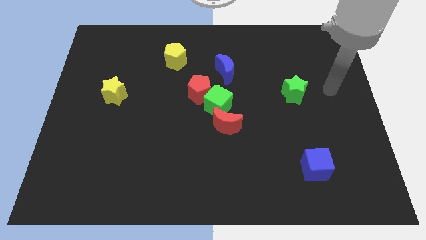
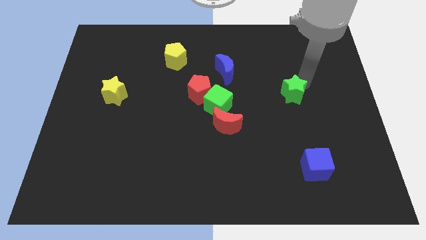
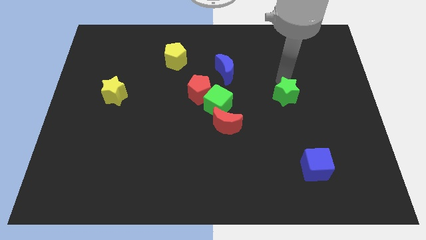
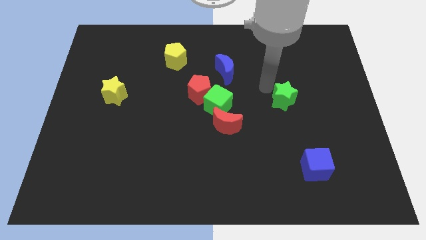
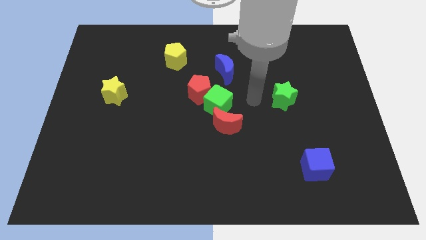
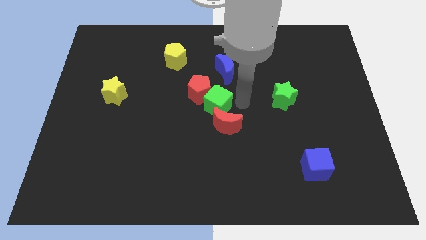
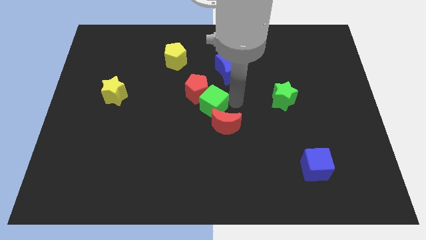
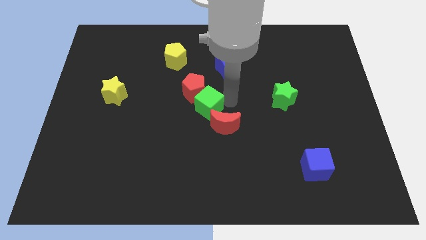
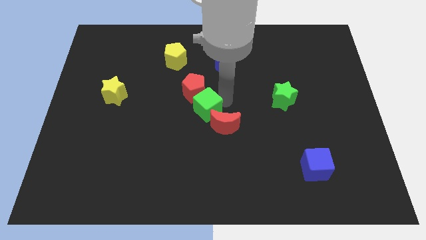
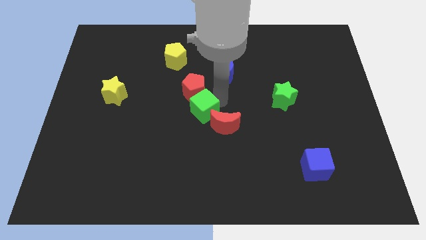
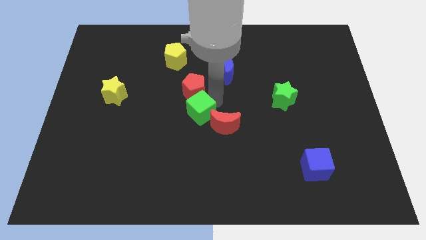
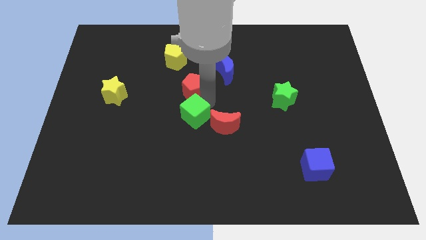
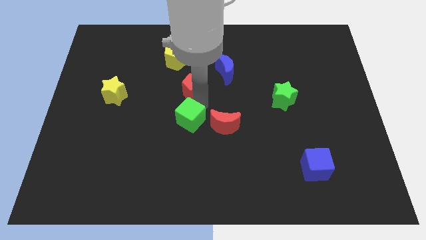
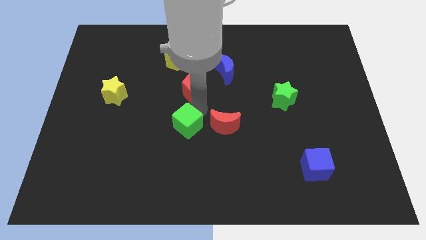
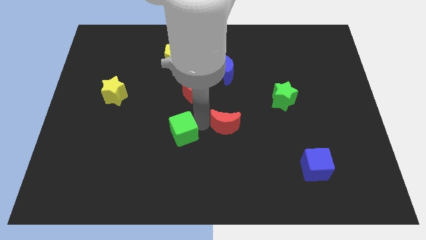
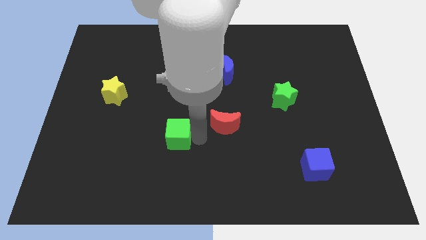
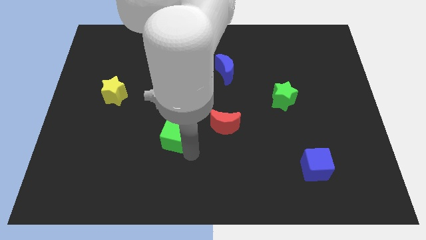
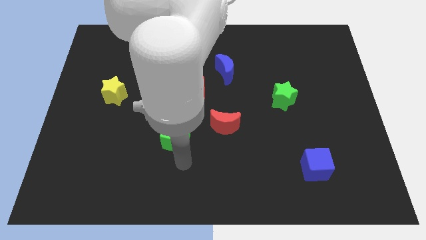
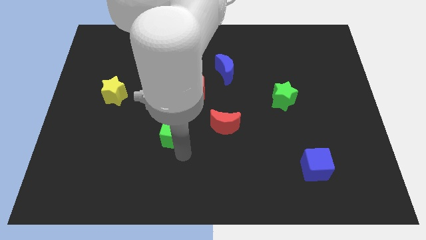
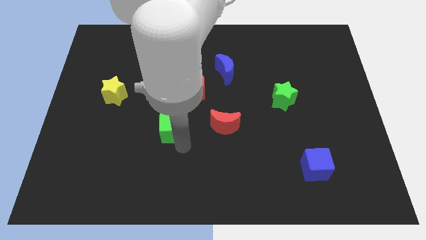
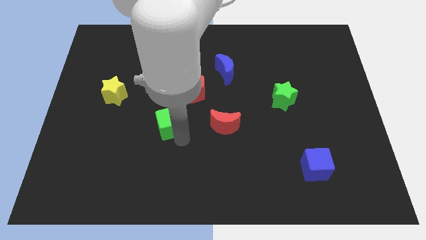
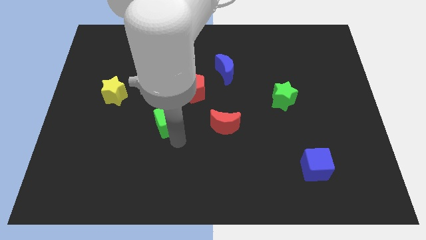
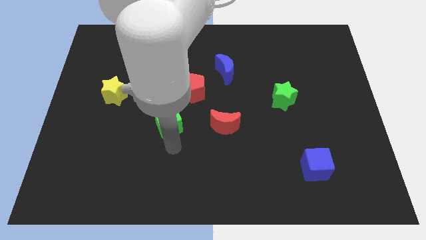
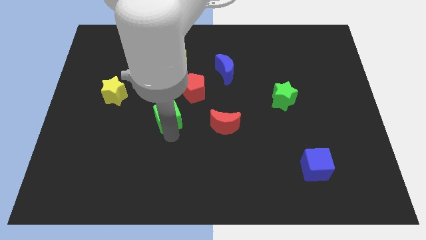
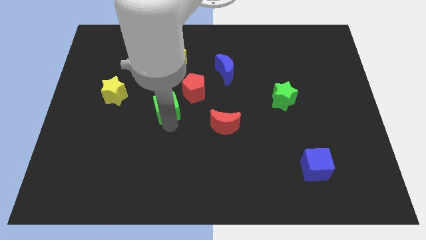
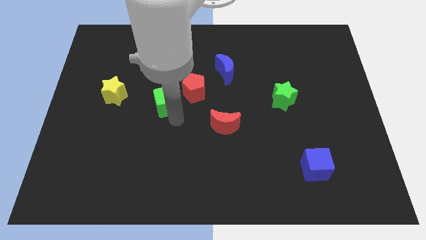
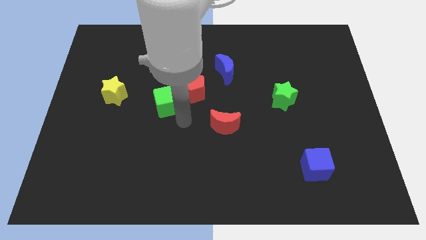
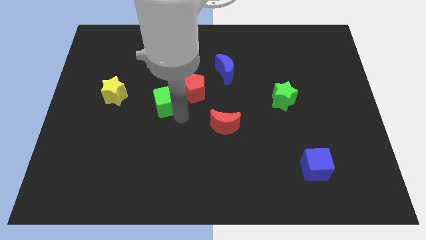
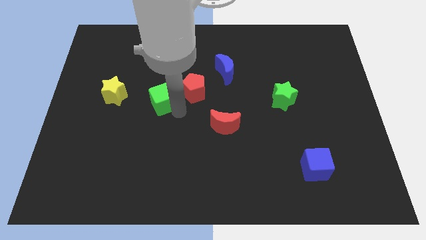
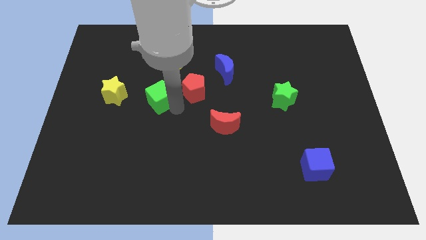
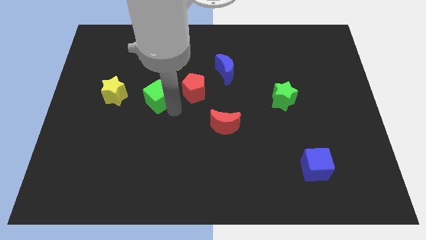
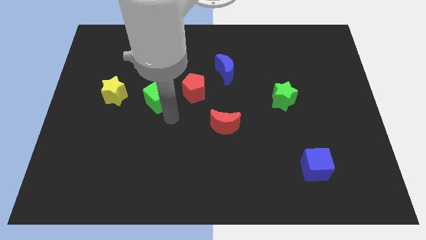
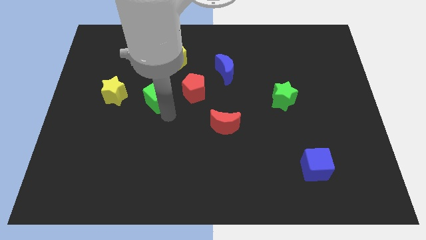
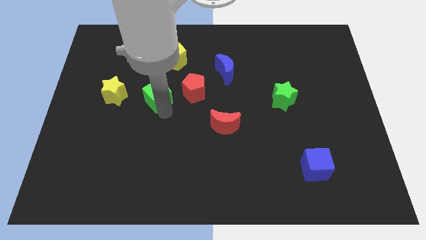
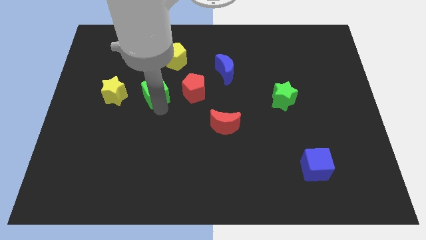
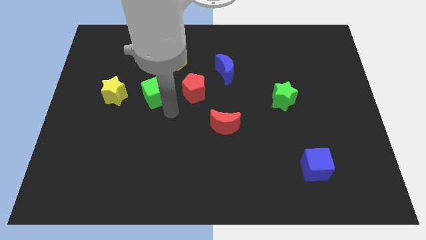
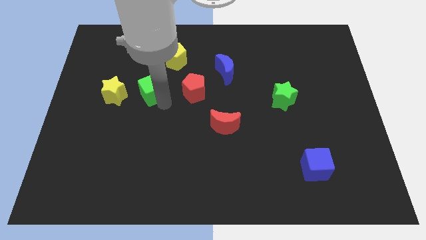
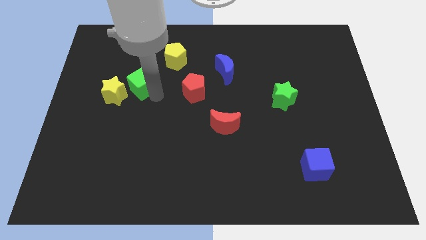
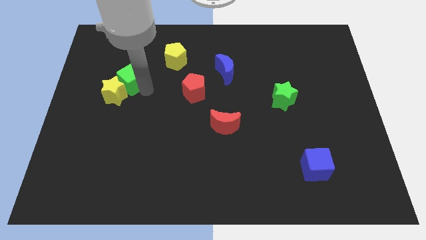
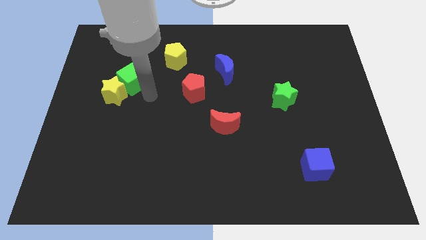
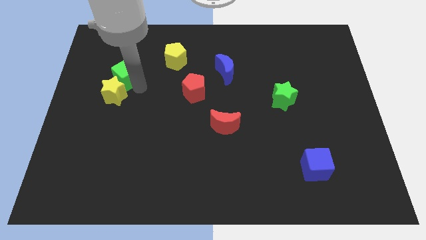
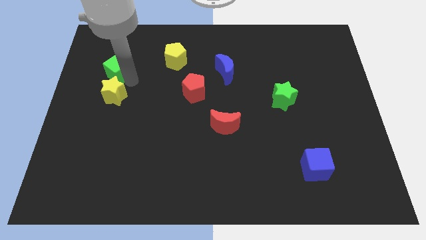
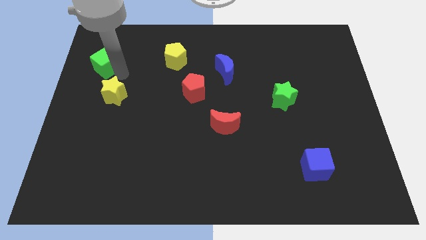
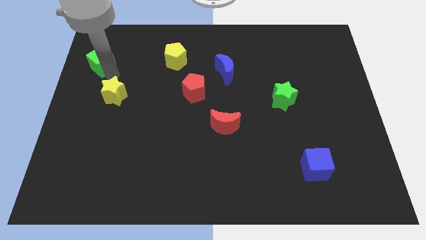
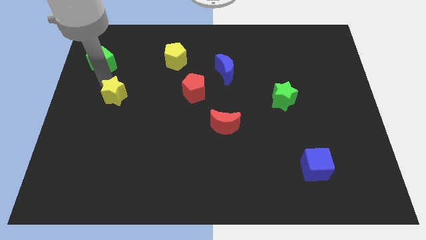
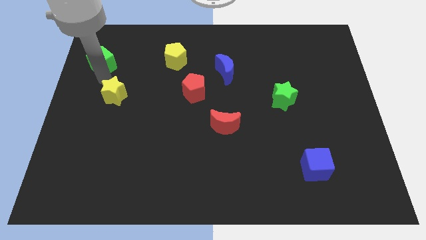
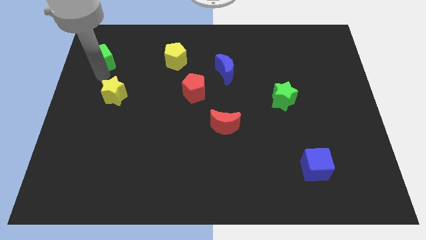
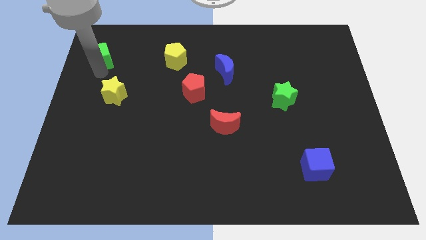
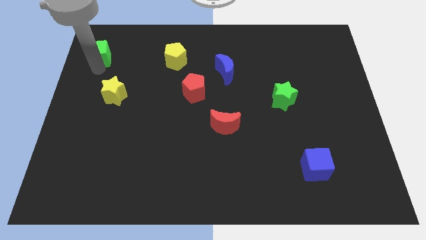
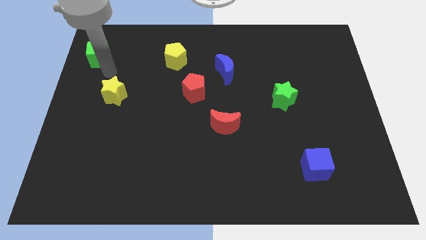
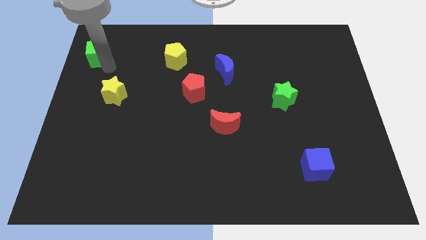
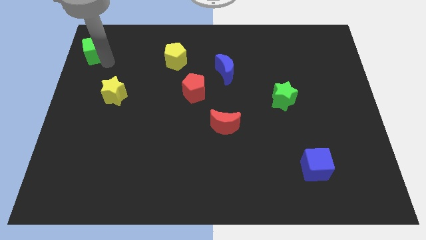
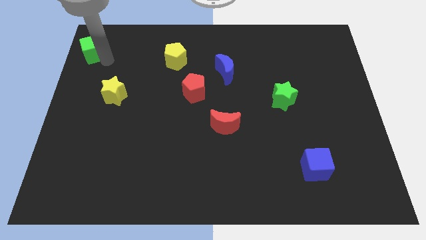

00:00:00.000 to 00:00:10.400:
put the green cube to the top left corner

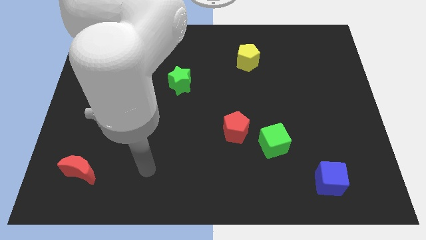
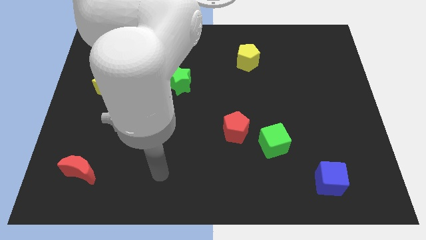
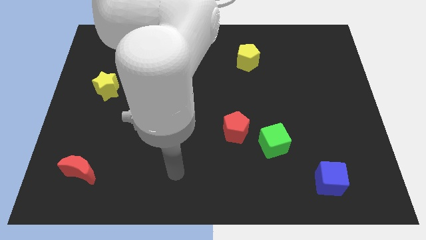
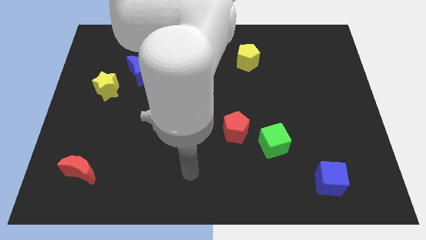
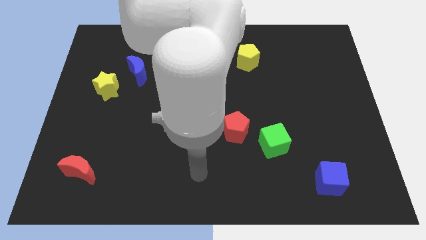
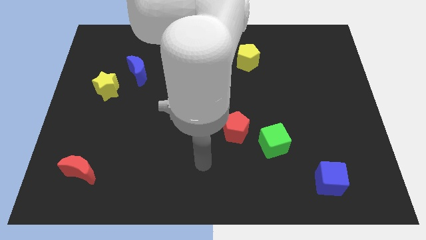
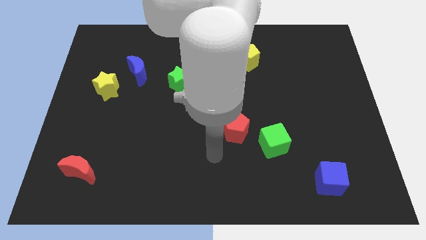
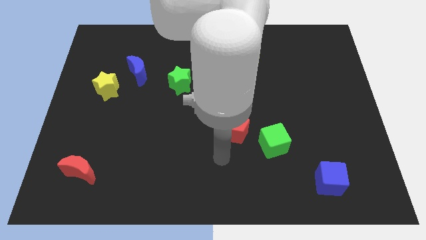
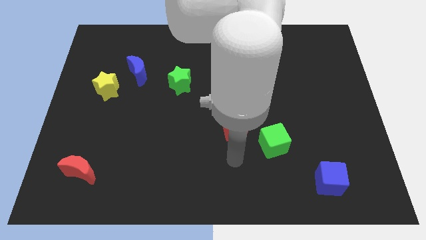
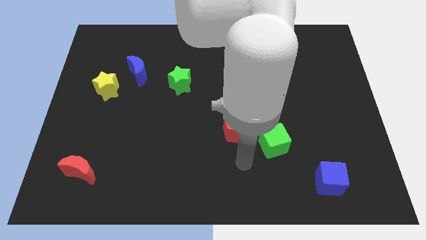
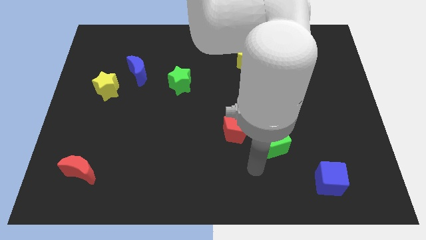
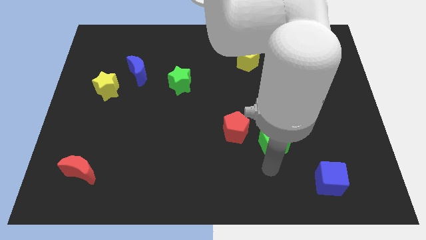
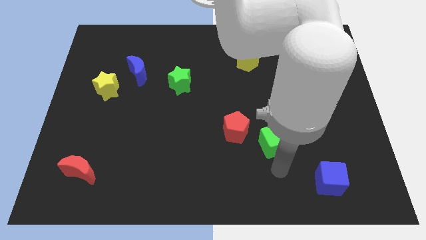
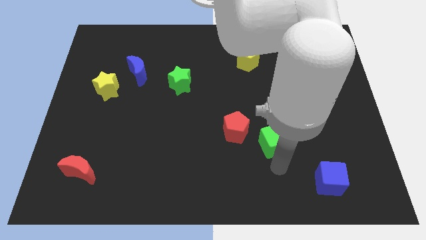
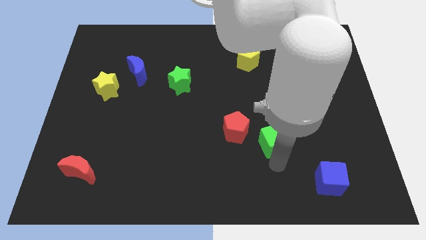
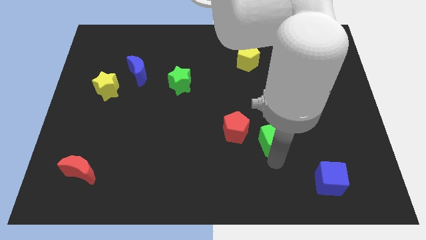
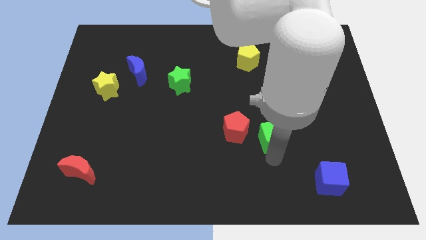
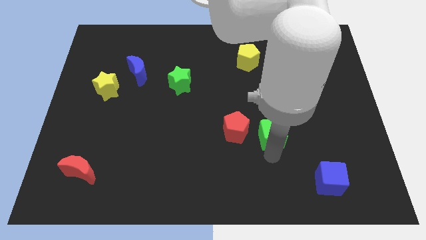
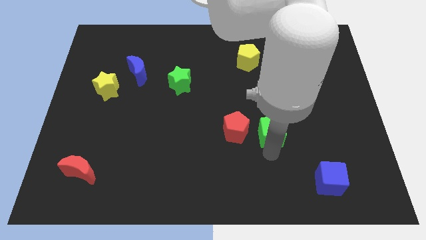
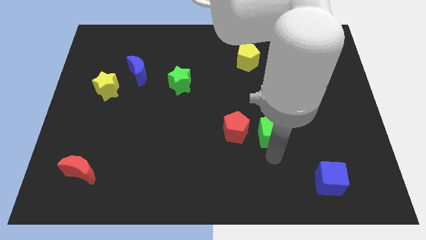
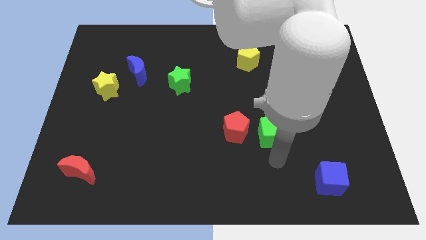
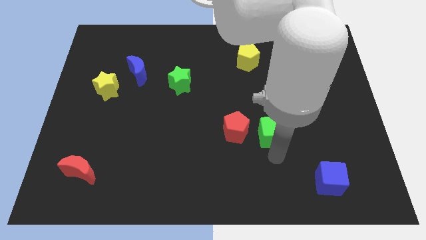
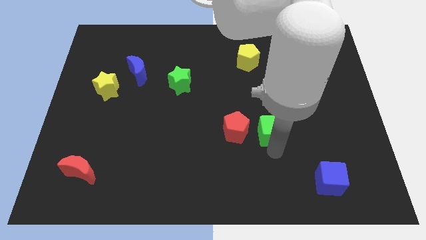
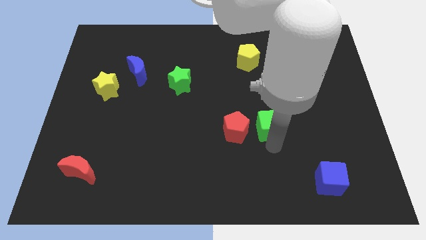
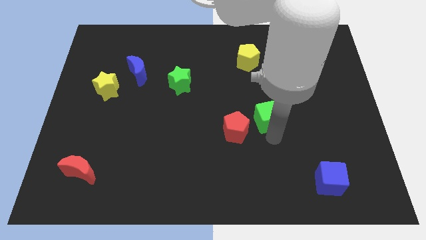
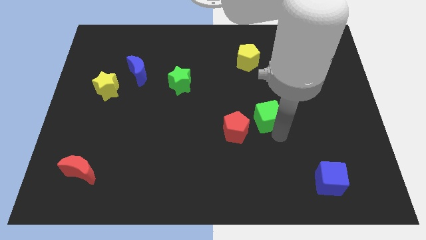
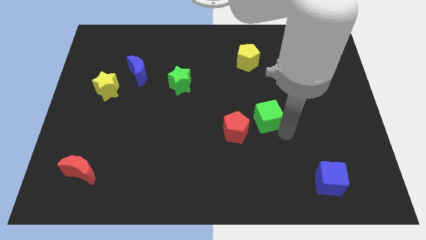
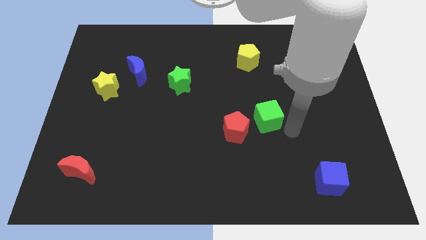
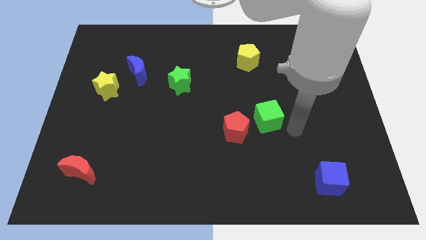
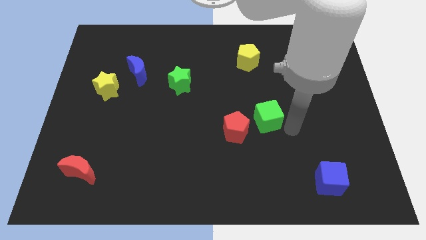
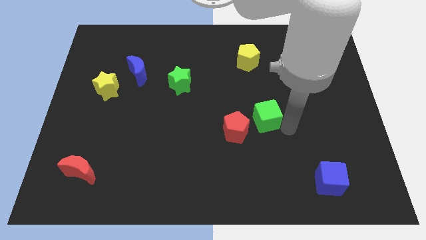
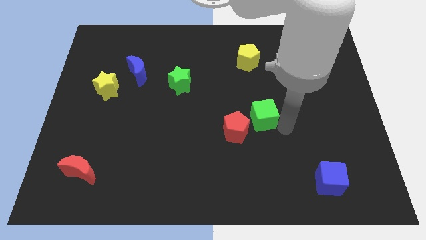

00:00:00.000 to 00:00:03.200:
push the green cube to the center
